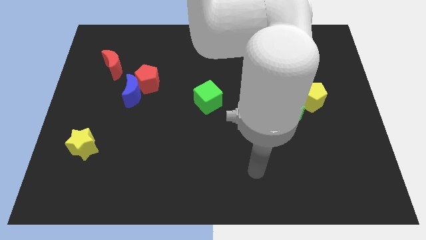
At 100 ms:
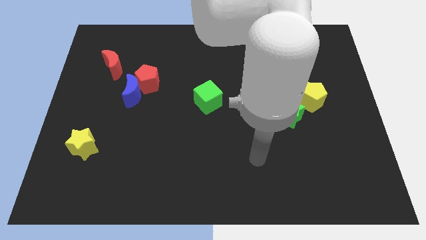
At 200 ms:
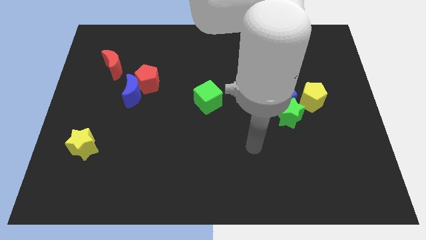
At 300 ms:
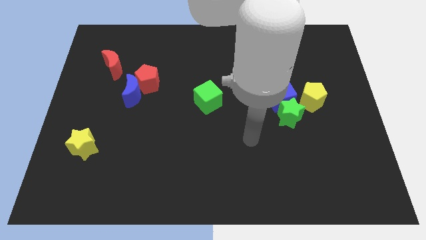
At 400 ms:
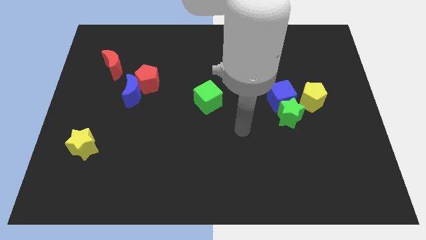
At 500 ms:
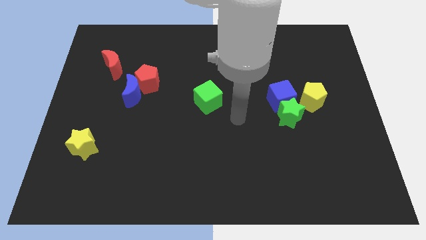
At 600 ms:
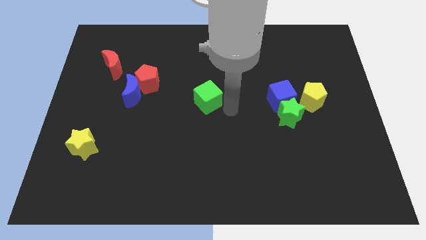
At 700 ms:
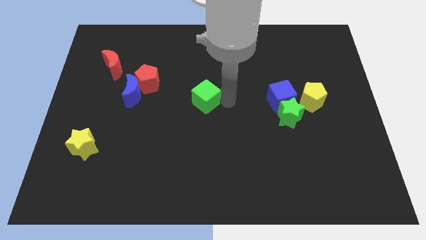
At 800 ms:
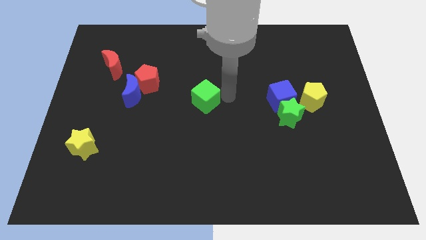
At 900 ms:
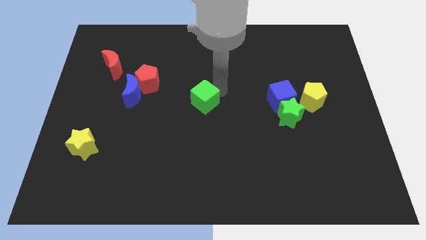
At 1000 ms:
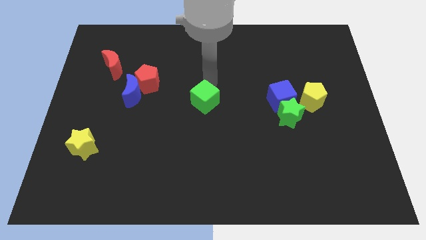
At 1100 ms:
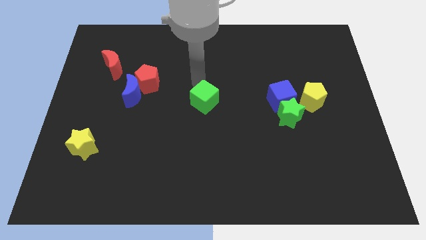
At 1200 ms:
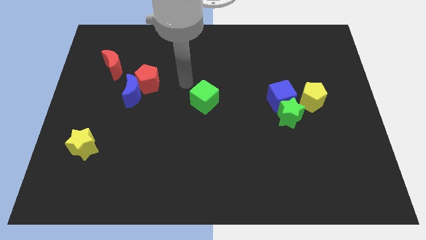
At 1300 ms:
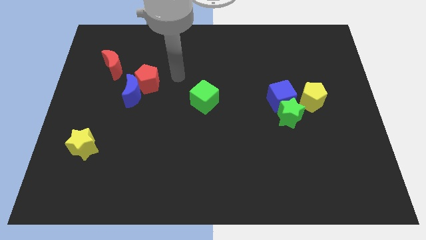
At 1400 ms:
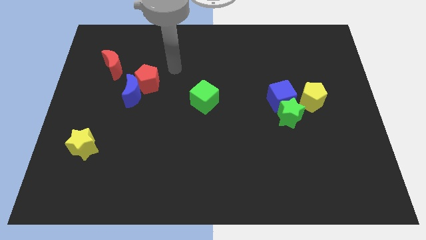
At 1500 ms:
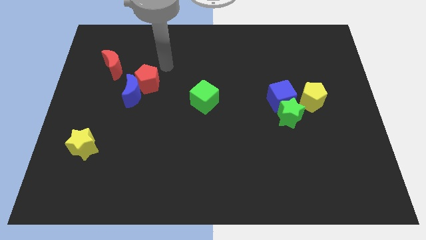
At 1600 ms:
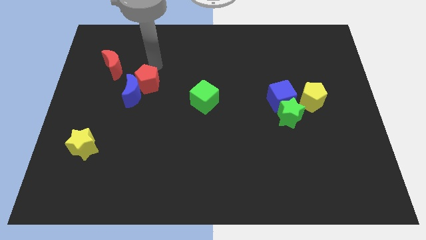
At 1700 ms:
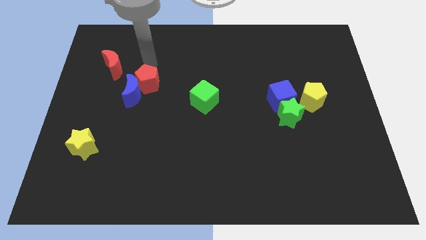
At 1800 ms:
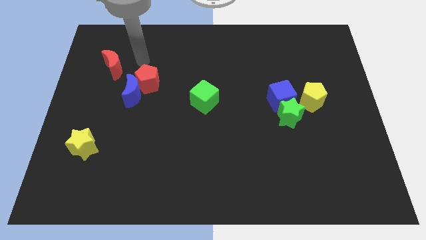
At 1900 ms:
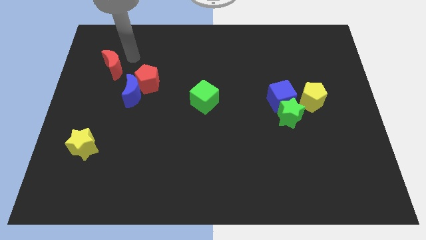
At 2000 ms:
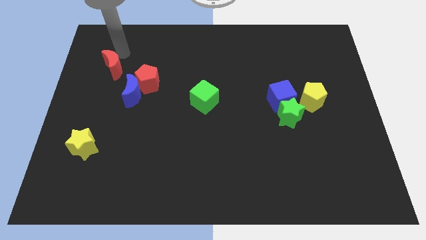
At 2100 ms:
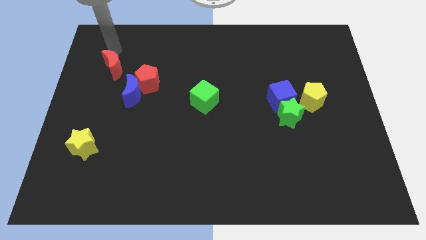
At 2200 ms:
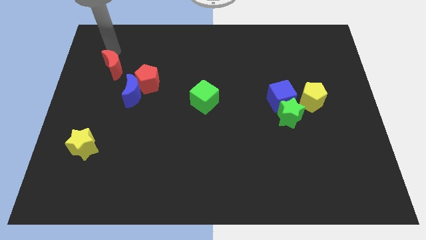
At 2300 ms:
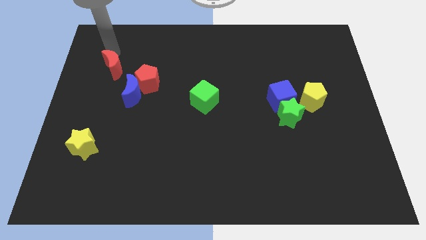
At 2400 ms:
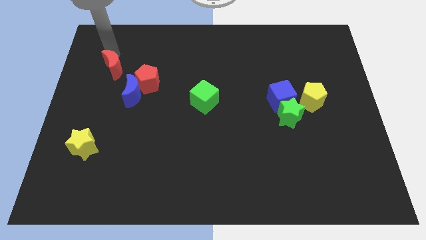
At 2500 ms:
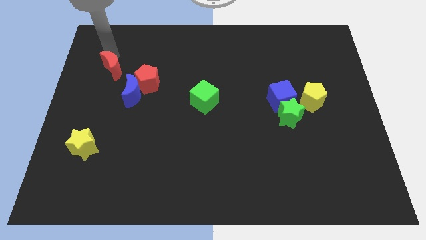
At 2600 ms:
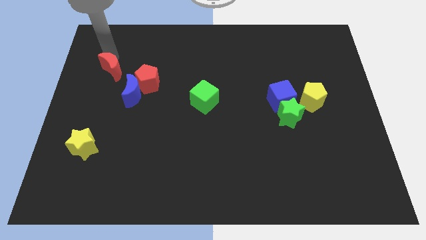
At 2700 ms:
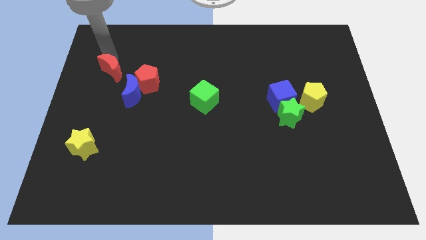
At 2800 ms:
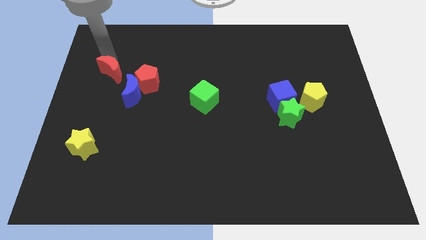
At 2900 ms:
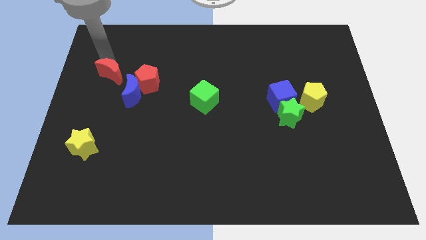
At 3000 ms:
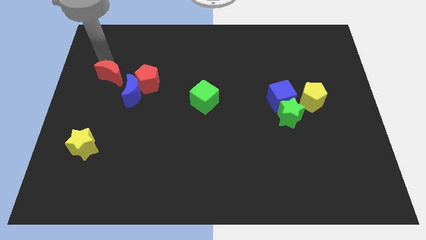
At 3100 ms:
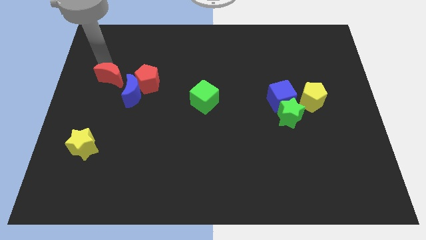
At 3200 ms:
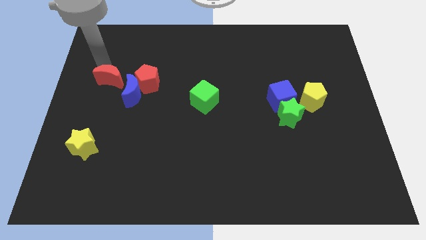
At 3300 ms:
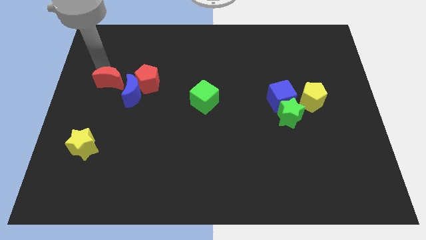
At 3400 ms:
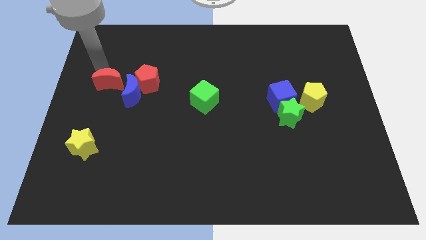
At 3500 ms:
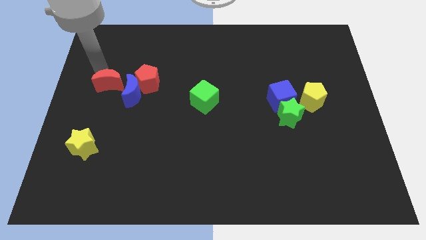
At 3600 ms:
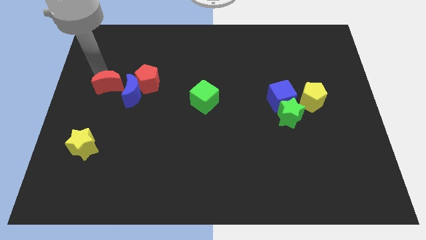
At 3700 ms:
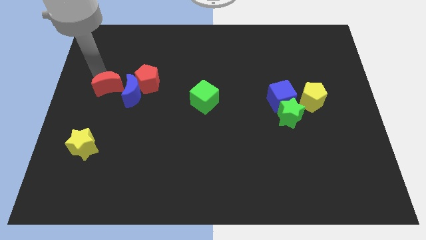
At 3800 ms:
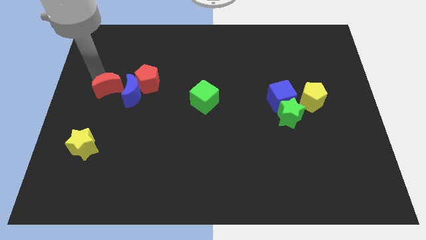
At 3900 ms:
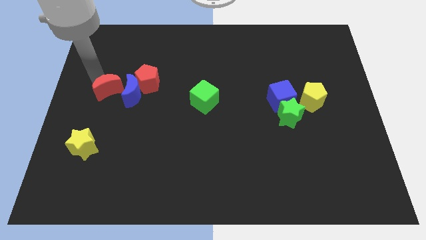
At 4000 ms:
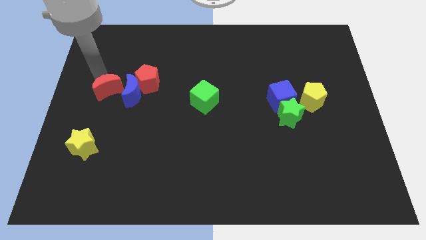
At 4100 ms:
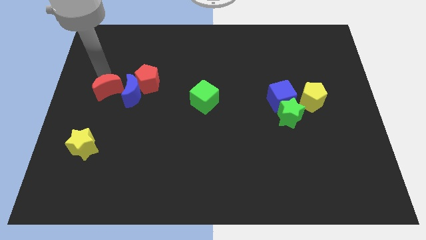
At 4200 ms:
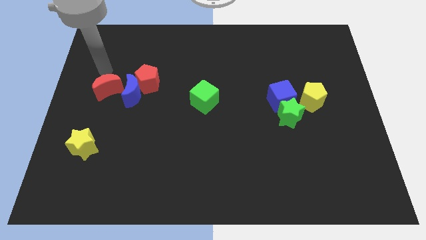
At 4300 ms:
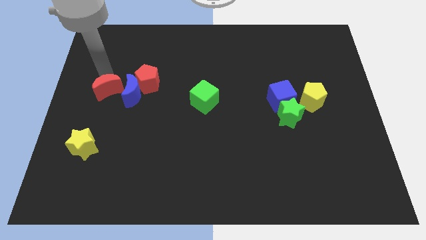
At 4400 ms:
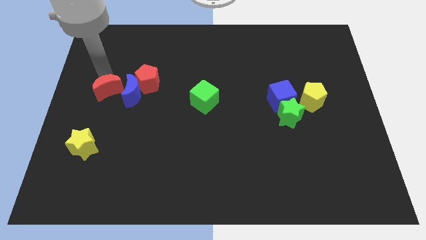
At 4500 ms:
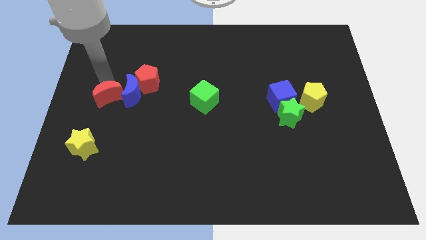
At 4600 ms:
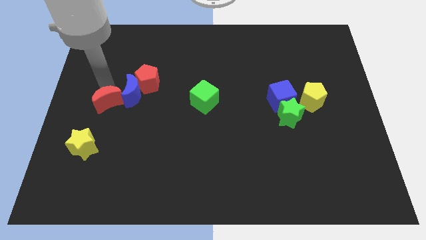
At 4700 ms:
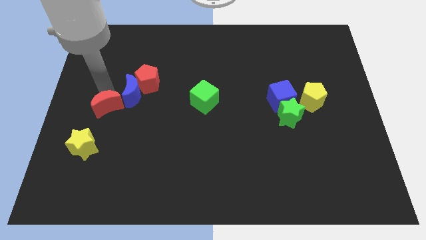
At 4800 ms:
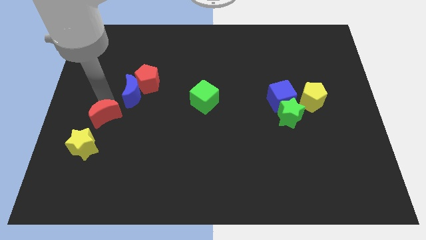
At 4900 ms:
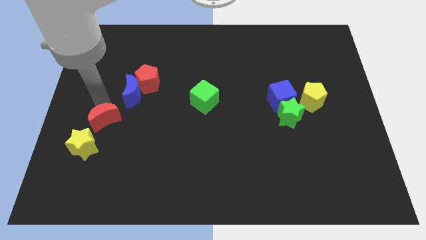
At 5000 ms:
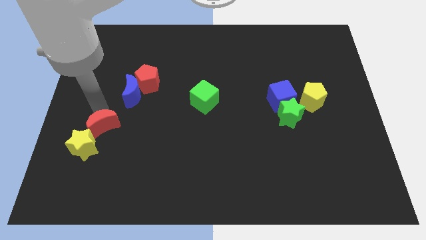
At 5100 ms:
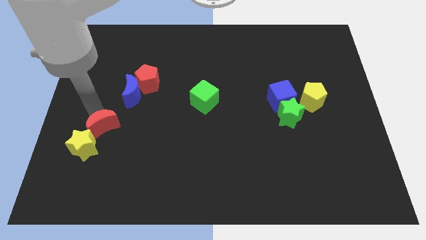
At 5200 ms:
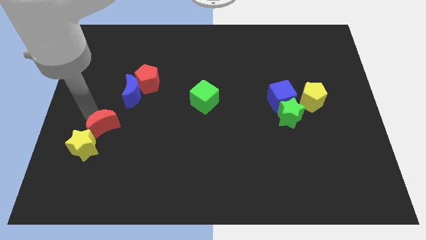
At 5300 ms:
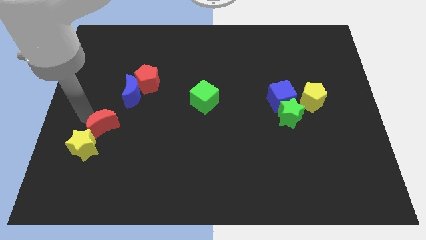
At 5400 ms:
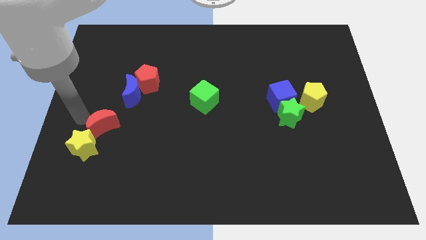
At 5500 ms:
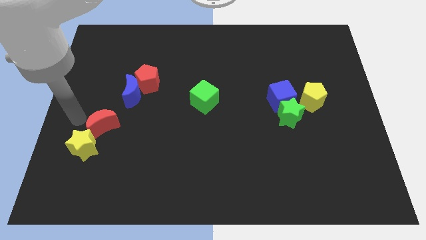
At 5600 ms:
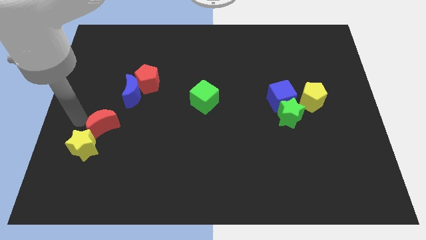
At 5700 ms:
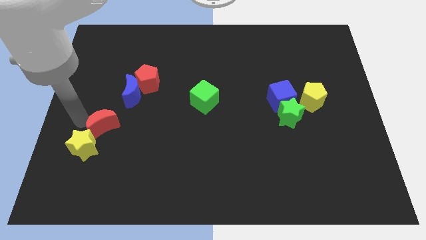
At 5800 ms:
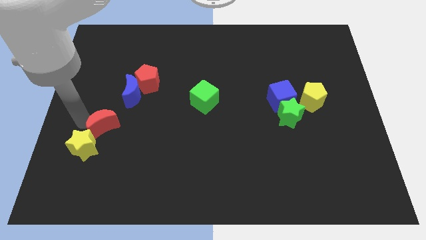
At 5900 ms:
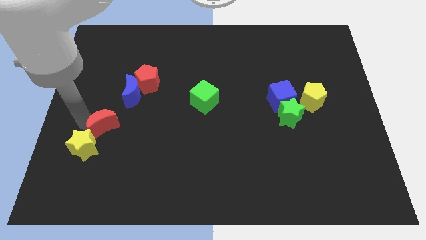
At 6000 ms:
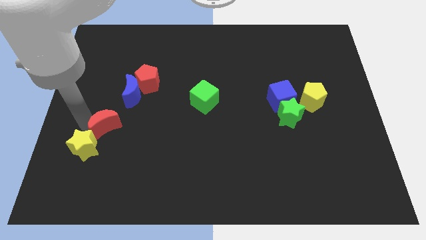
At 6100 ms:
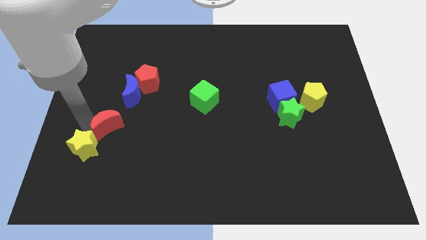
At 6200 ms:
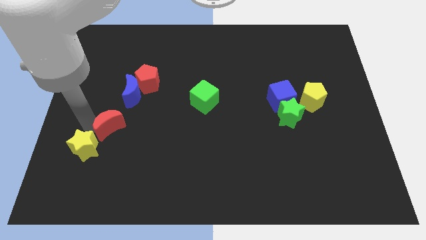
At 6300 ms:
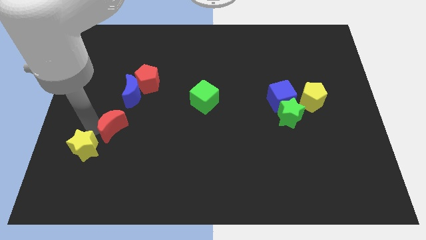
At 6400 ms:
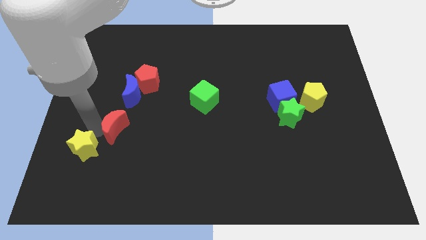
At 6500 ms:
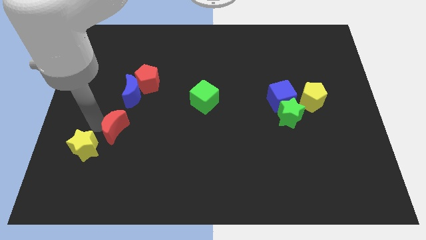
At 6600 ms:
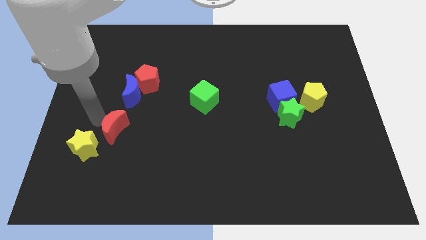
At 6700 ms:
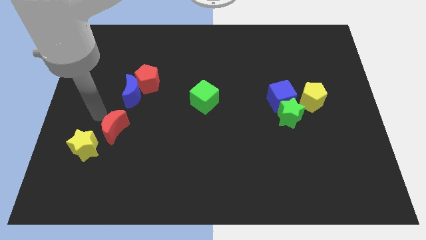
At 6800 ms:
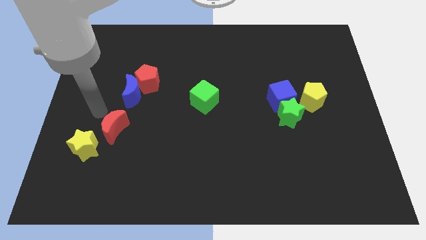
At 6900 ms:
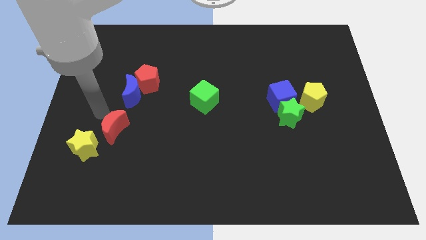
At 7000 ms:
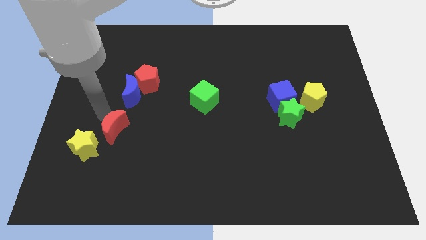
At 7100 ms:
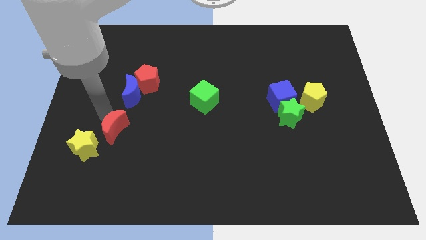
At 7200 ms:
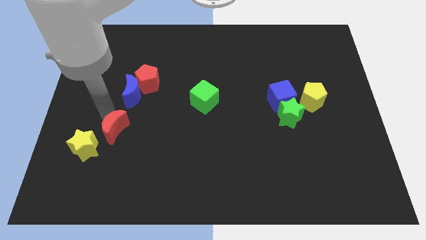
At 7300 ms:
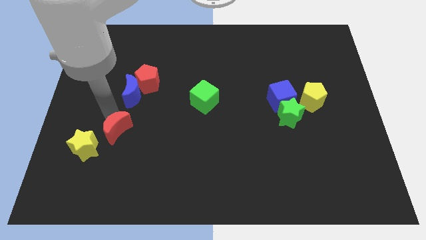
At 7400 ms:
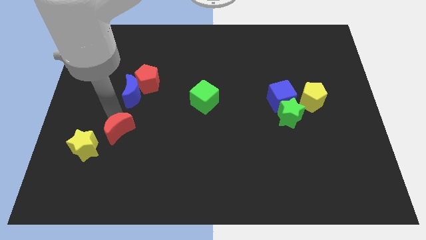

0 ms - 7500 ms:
push the red moon to the right side of the yellow star
